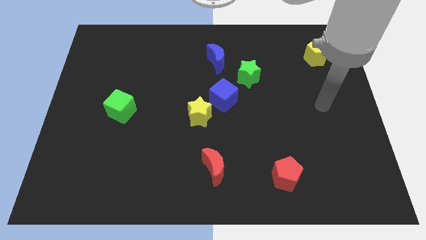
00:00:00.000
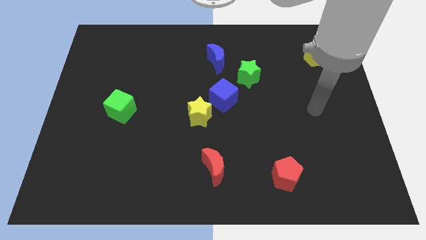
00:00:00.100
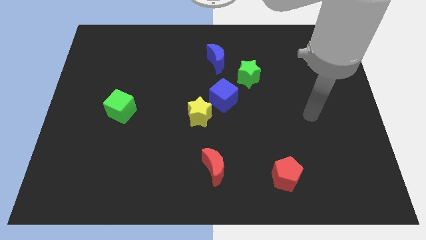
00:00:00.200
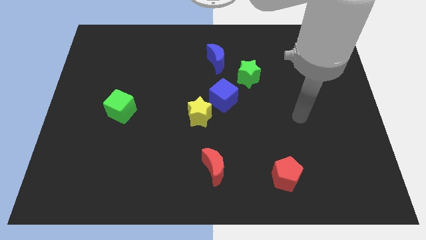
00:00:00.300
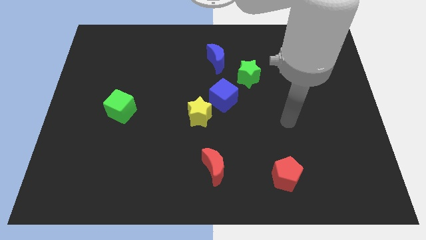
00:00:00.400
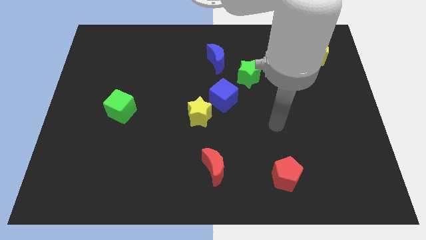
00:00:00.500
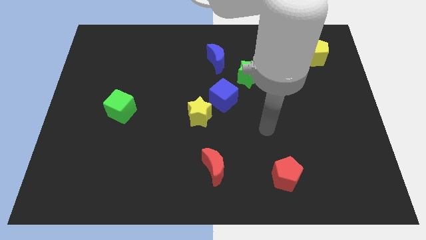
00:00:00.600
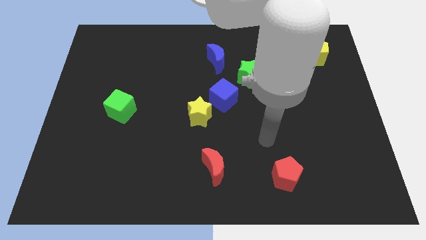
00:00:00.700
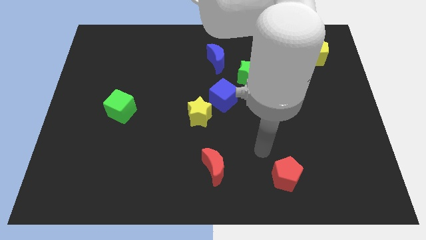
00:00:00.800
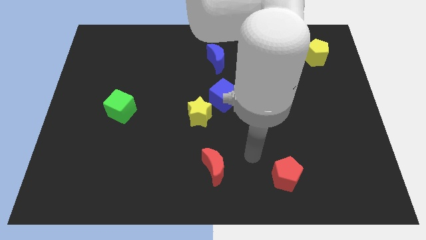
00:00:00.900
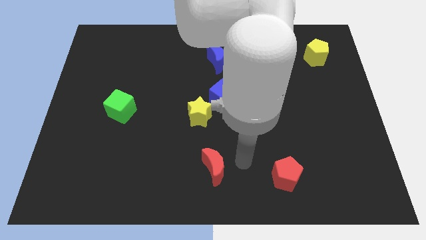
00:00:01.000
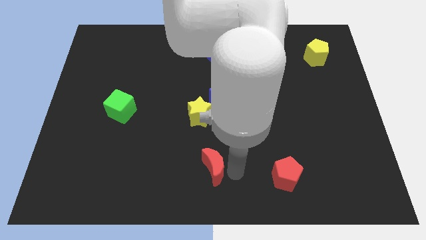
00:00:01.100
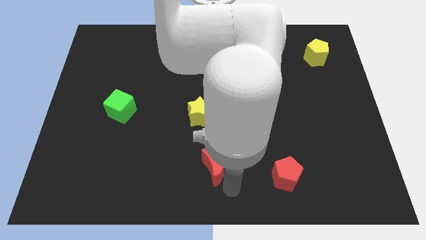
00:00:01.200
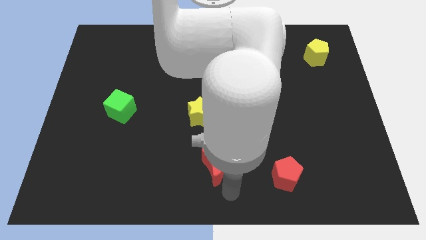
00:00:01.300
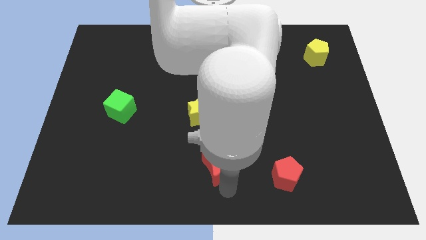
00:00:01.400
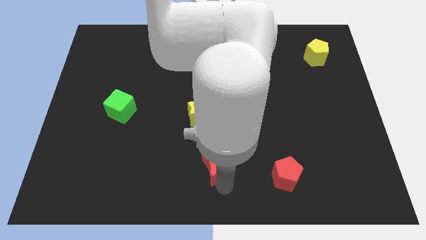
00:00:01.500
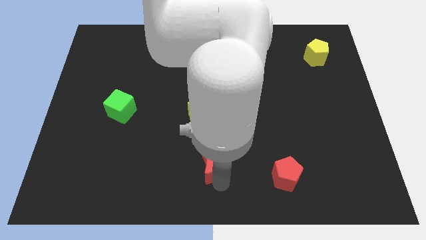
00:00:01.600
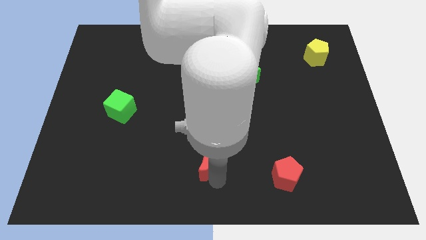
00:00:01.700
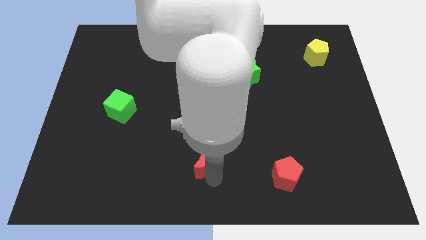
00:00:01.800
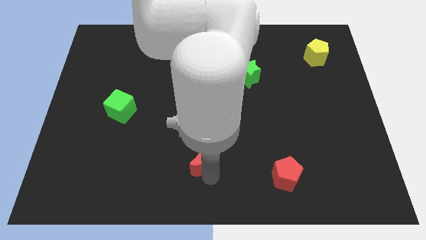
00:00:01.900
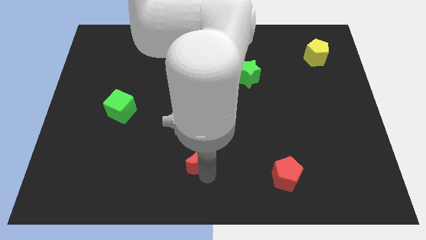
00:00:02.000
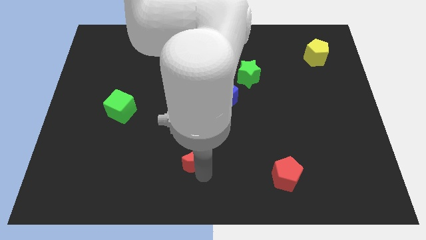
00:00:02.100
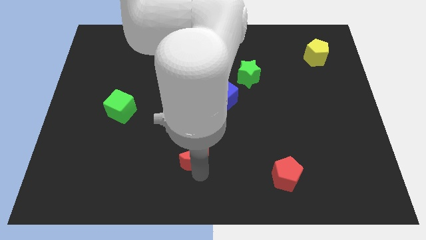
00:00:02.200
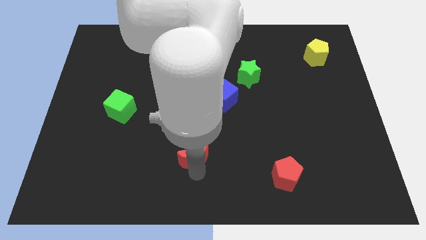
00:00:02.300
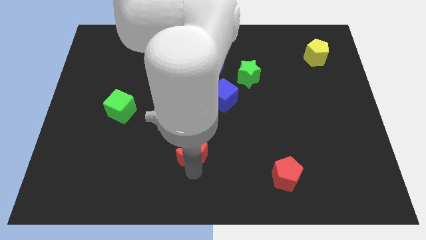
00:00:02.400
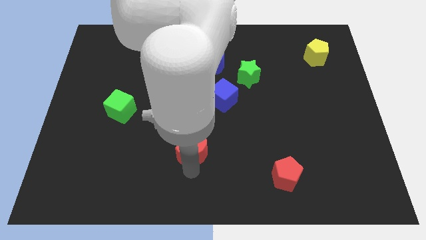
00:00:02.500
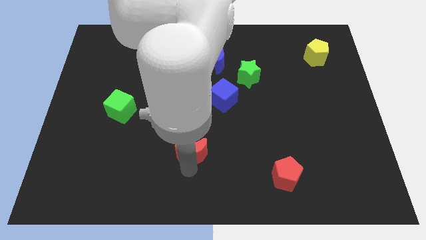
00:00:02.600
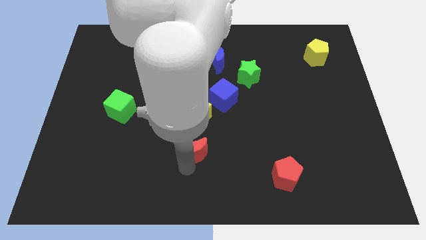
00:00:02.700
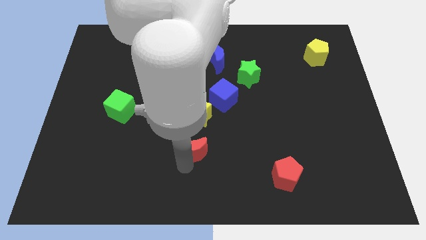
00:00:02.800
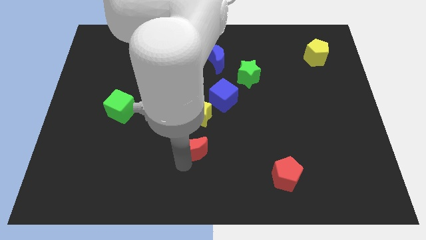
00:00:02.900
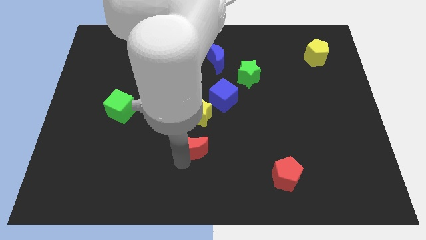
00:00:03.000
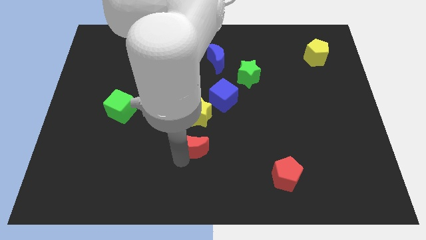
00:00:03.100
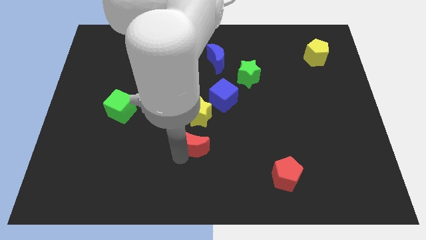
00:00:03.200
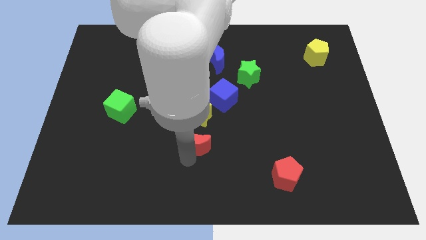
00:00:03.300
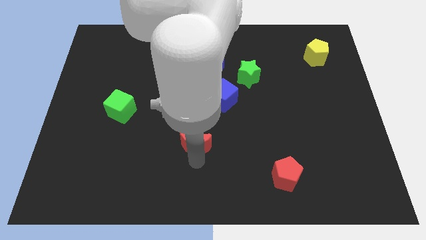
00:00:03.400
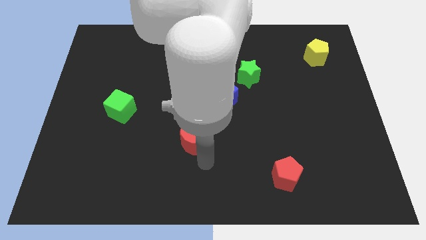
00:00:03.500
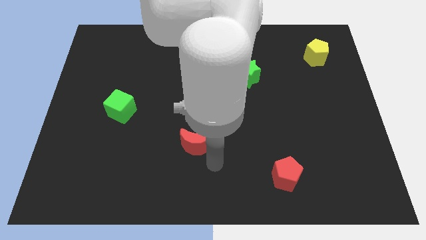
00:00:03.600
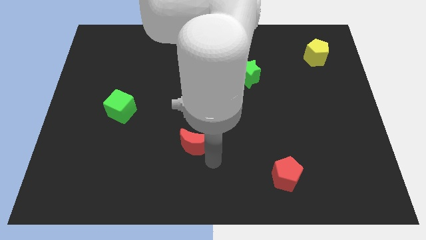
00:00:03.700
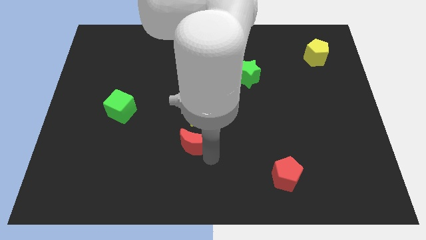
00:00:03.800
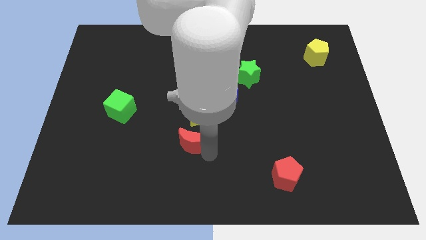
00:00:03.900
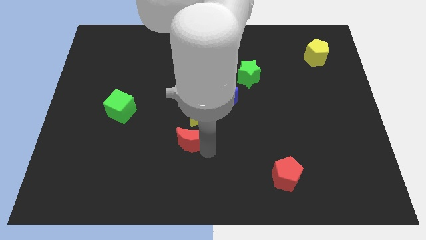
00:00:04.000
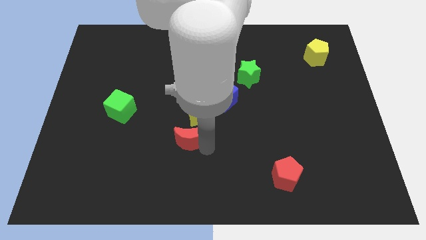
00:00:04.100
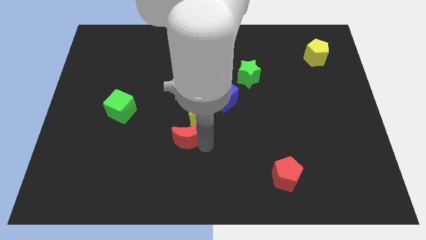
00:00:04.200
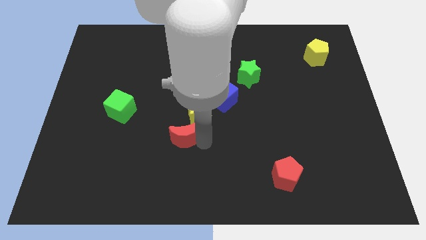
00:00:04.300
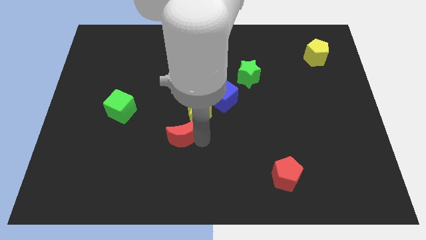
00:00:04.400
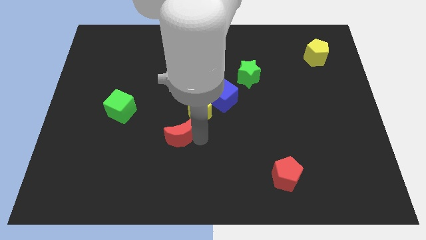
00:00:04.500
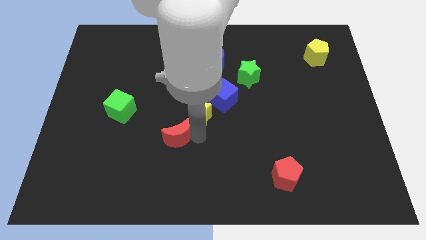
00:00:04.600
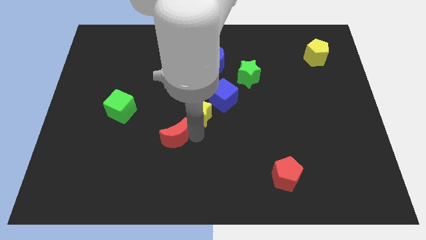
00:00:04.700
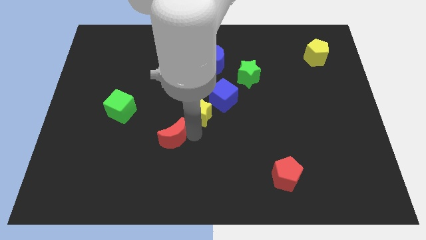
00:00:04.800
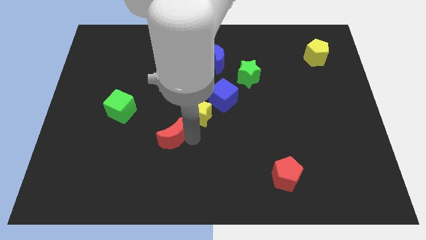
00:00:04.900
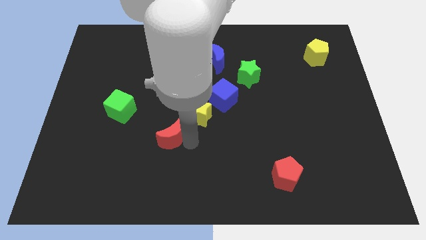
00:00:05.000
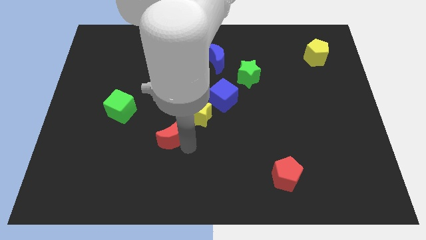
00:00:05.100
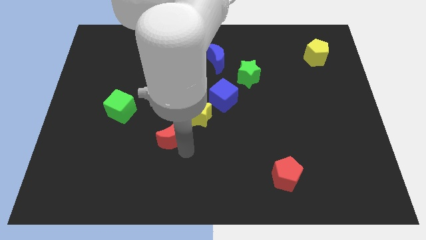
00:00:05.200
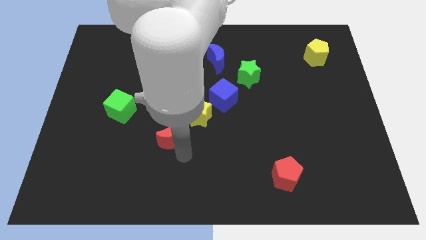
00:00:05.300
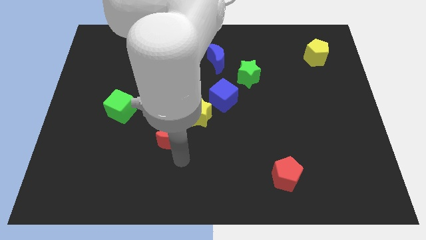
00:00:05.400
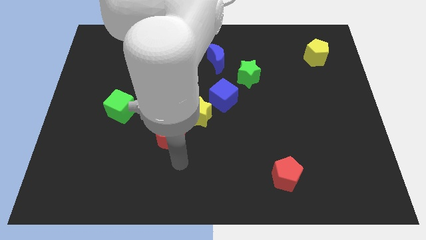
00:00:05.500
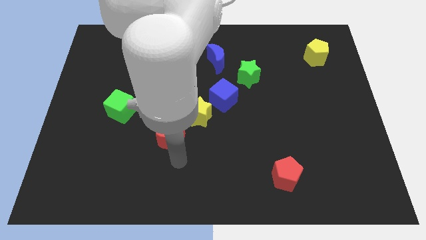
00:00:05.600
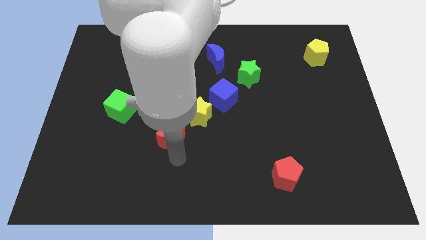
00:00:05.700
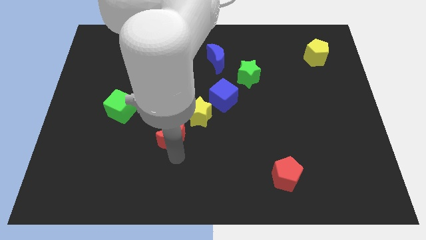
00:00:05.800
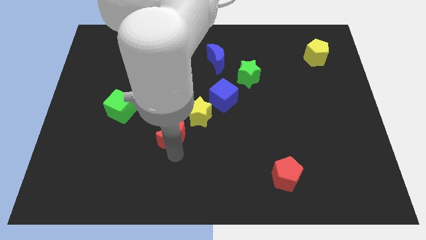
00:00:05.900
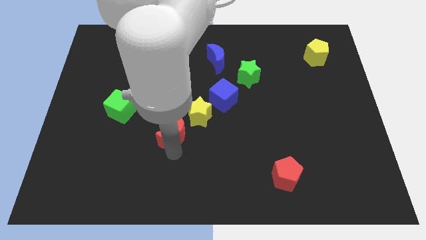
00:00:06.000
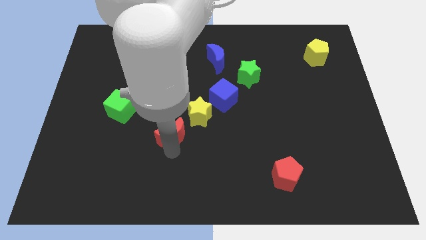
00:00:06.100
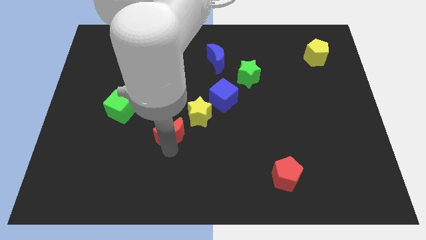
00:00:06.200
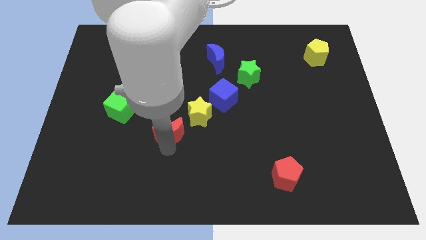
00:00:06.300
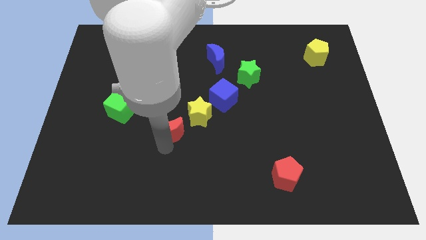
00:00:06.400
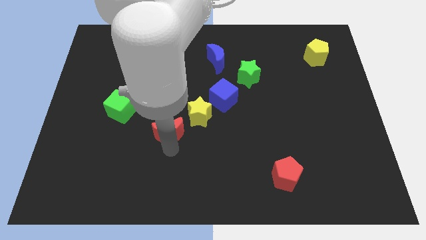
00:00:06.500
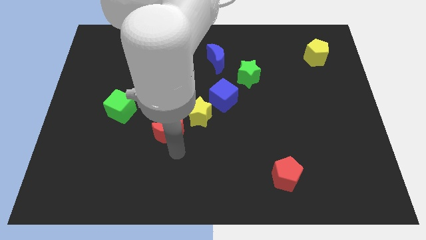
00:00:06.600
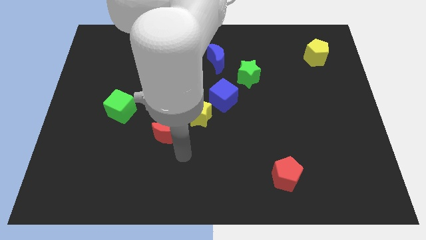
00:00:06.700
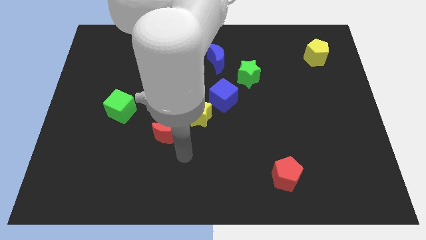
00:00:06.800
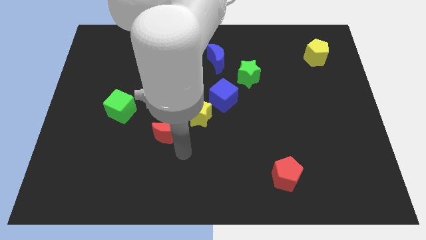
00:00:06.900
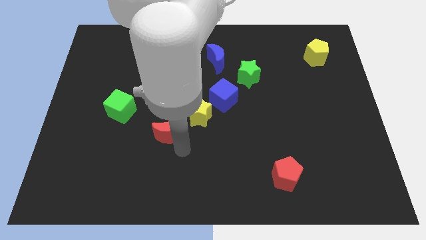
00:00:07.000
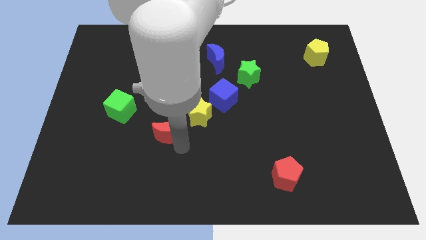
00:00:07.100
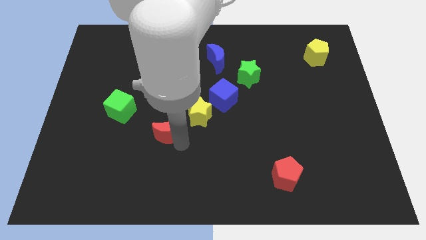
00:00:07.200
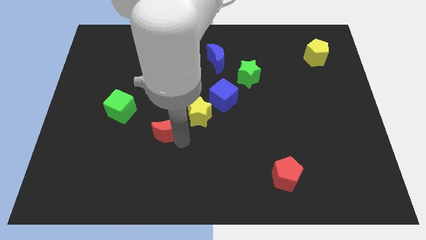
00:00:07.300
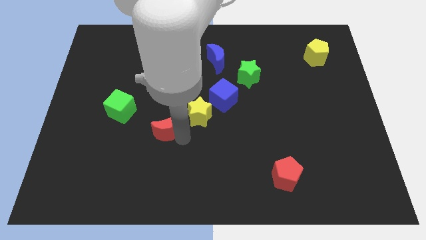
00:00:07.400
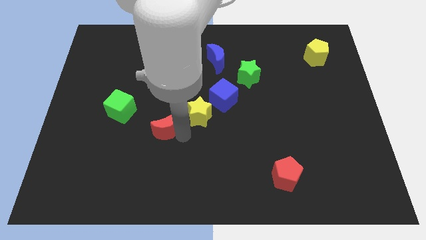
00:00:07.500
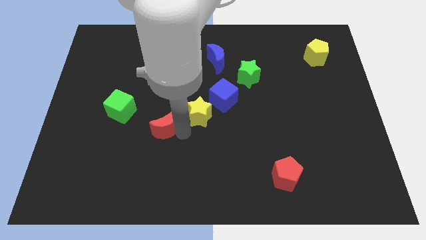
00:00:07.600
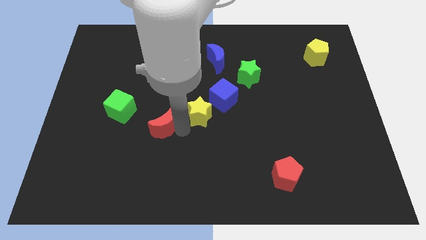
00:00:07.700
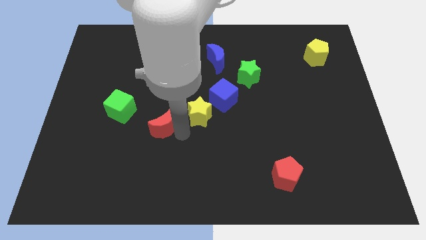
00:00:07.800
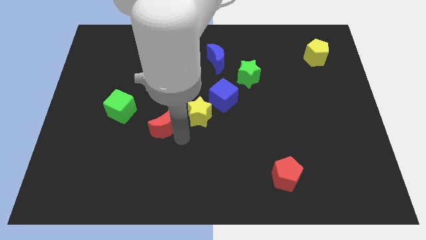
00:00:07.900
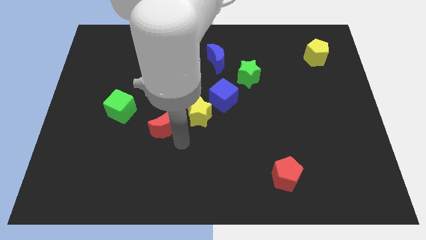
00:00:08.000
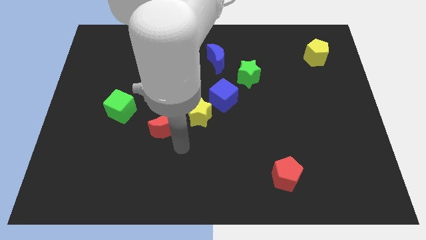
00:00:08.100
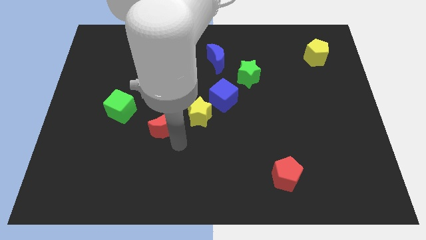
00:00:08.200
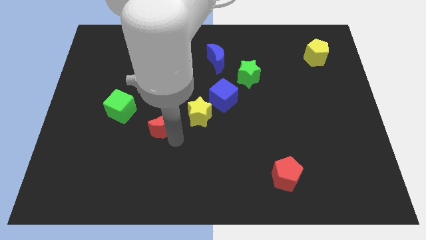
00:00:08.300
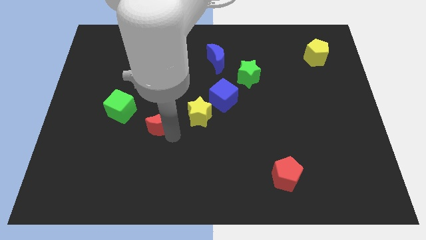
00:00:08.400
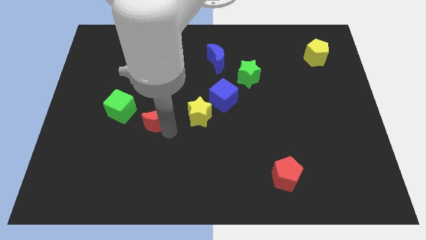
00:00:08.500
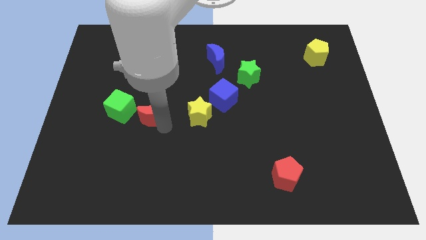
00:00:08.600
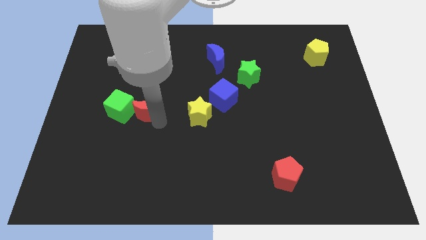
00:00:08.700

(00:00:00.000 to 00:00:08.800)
move the red moon up and to the left diagonally
